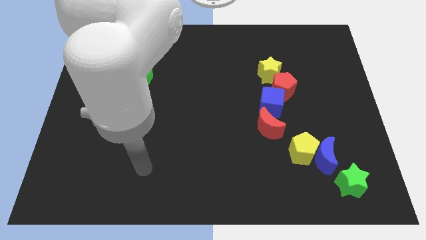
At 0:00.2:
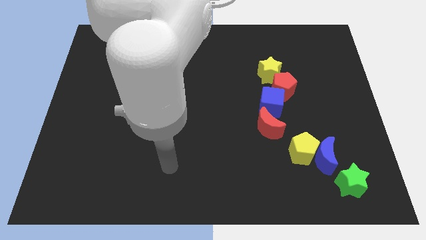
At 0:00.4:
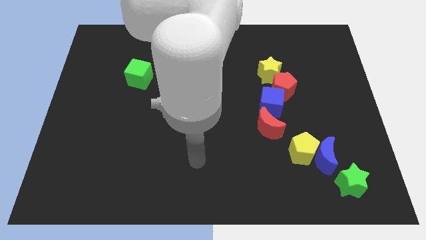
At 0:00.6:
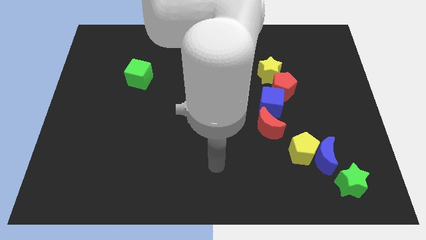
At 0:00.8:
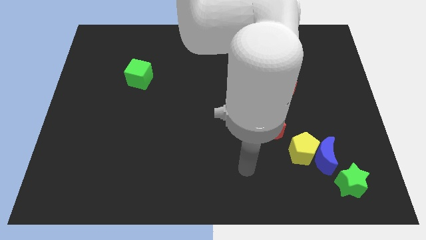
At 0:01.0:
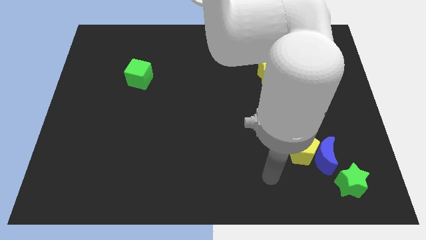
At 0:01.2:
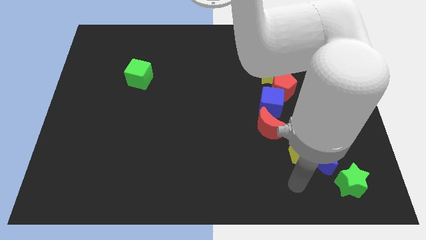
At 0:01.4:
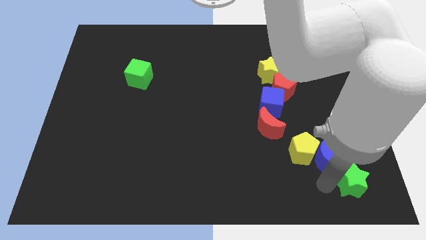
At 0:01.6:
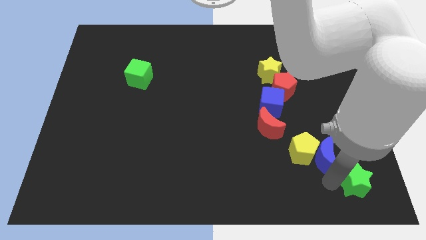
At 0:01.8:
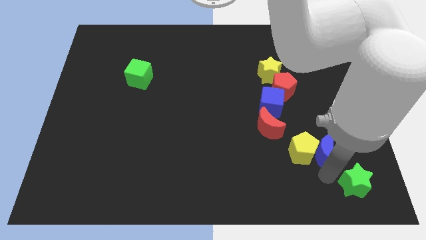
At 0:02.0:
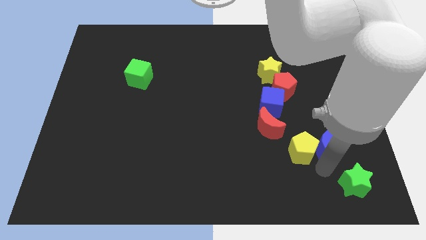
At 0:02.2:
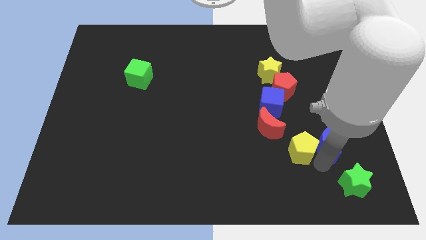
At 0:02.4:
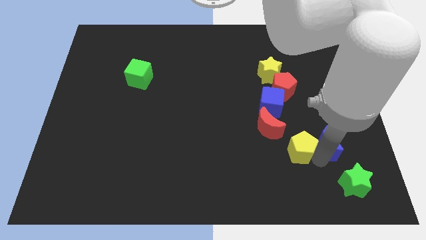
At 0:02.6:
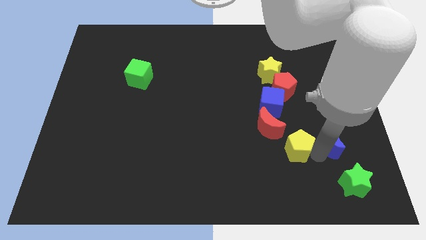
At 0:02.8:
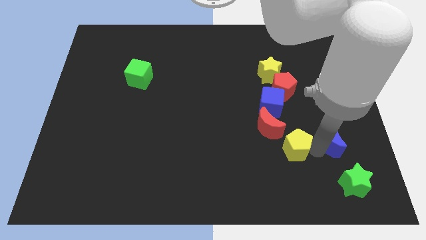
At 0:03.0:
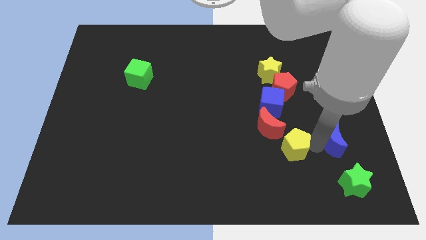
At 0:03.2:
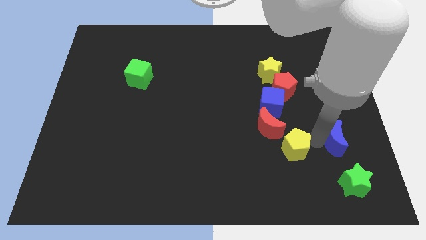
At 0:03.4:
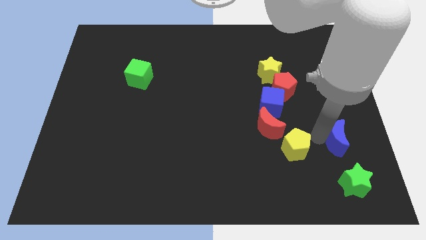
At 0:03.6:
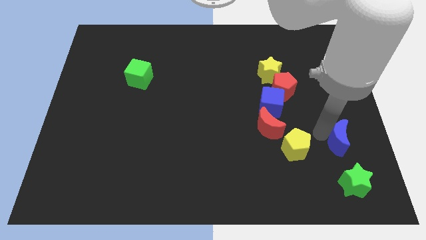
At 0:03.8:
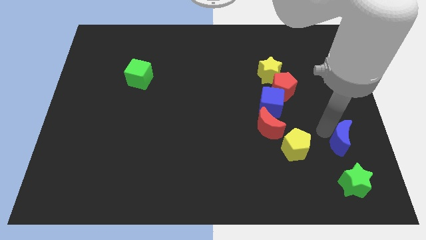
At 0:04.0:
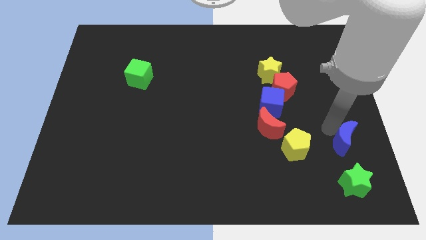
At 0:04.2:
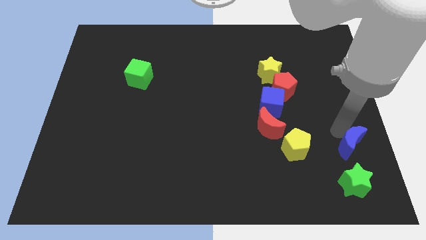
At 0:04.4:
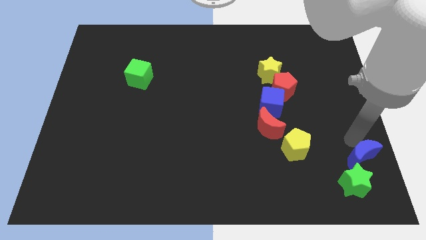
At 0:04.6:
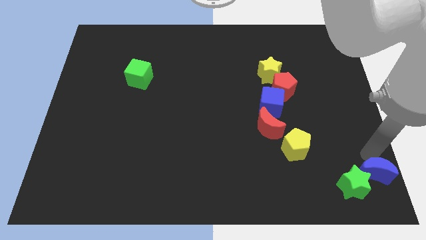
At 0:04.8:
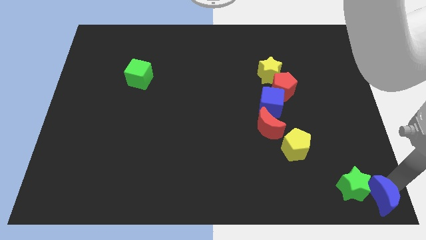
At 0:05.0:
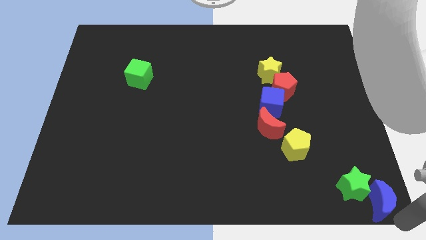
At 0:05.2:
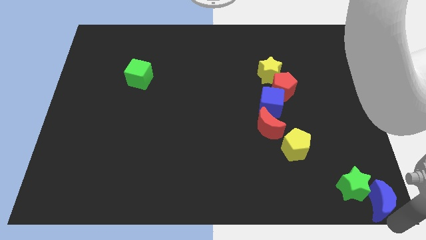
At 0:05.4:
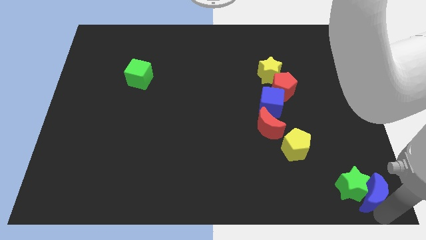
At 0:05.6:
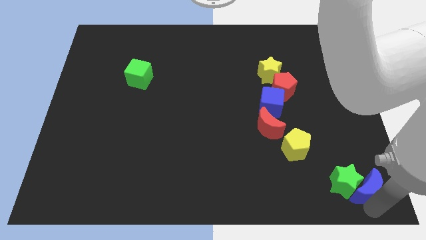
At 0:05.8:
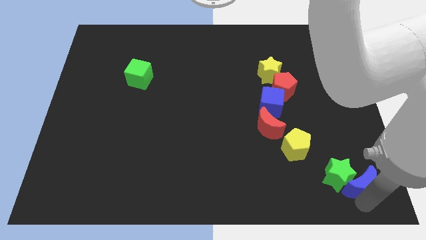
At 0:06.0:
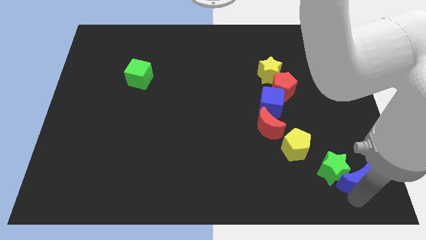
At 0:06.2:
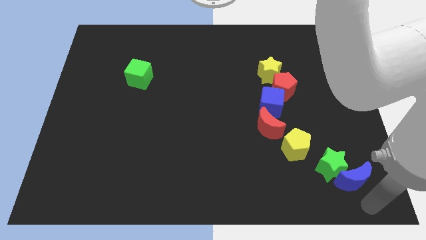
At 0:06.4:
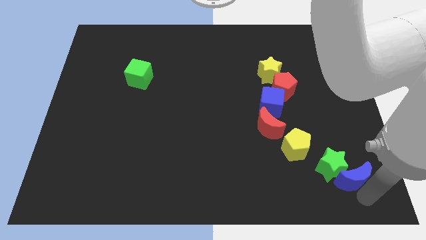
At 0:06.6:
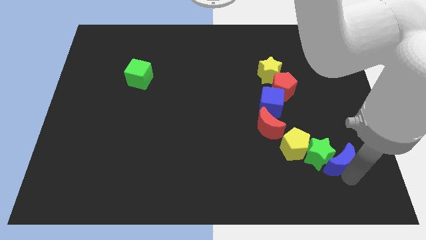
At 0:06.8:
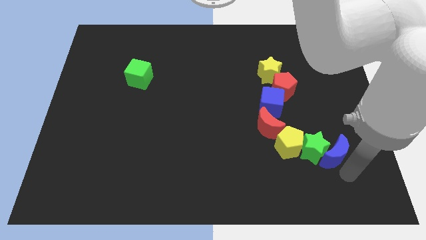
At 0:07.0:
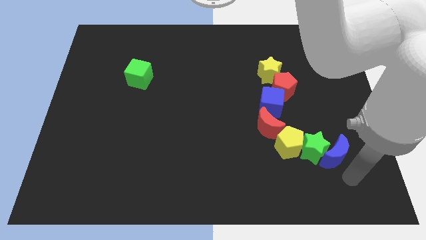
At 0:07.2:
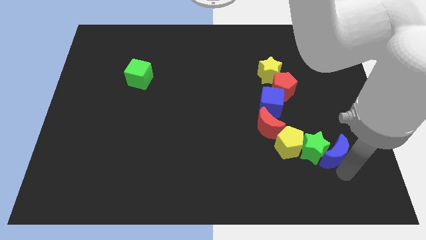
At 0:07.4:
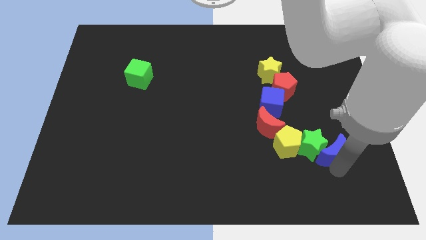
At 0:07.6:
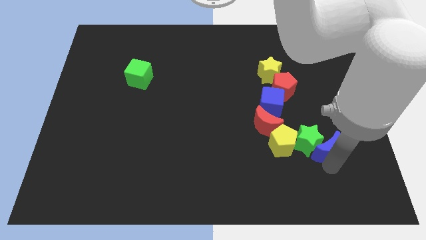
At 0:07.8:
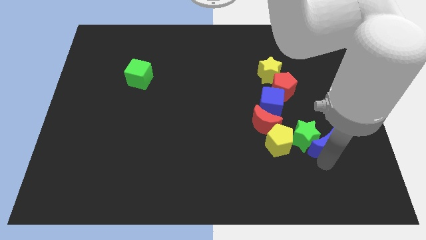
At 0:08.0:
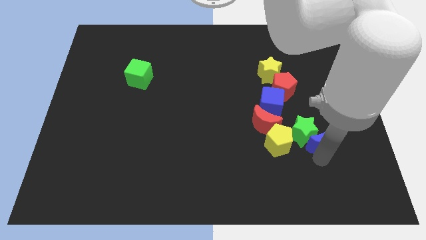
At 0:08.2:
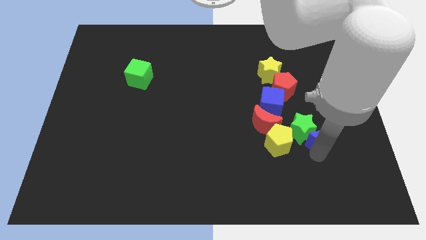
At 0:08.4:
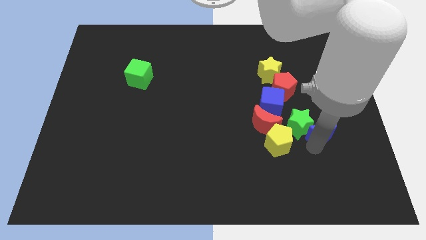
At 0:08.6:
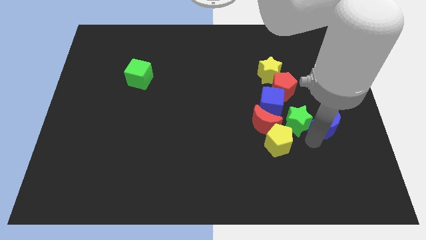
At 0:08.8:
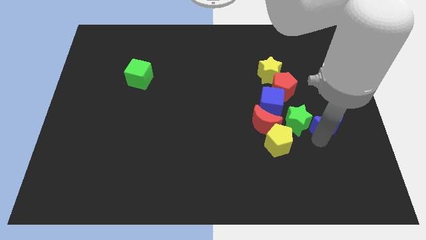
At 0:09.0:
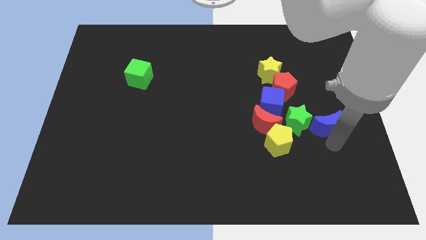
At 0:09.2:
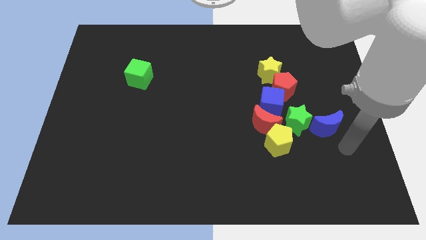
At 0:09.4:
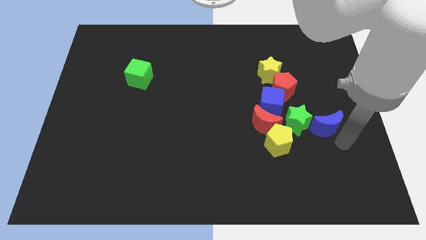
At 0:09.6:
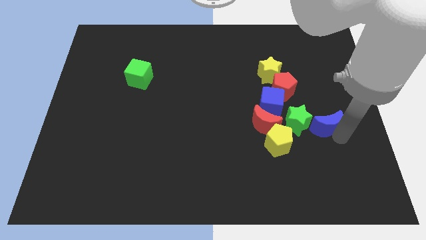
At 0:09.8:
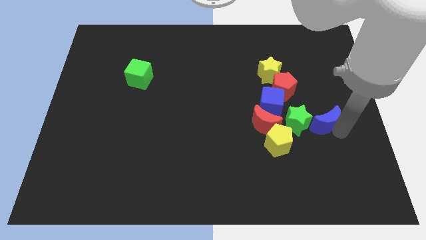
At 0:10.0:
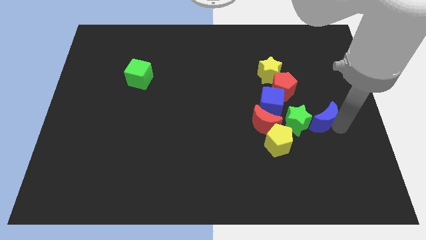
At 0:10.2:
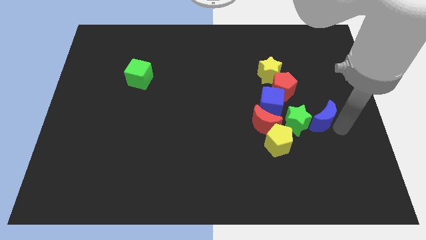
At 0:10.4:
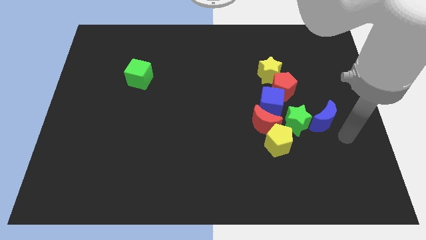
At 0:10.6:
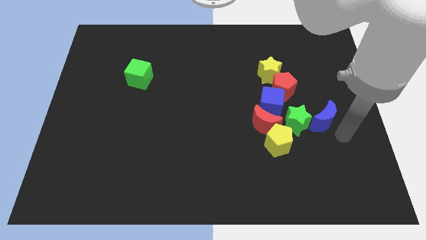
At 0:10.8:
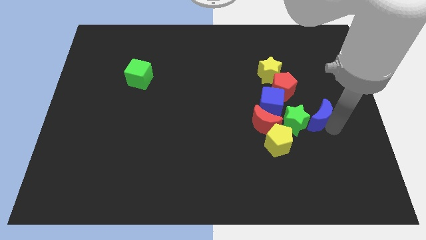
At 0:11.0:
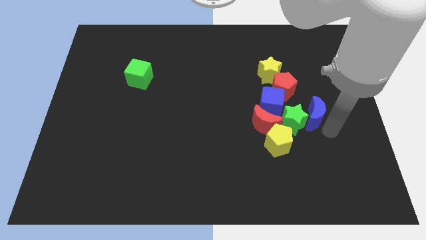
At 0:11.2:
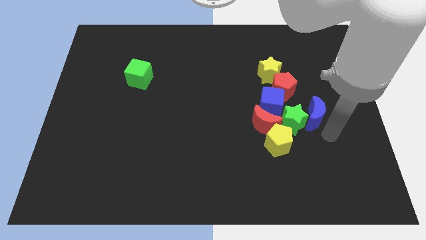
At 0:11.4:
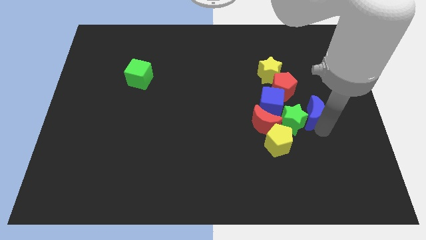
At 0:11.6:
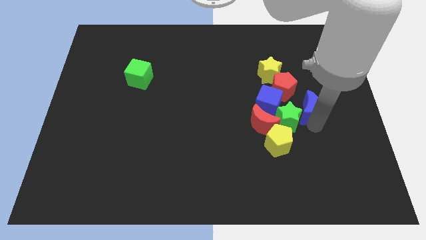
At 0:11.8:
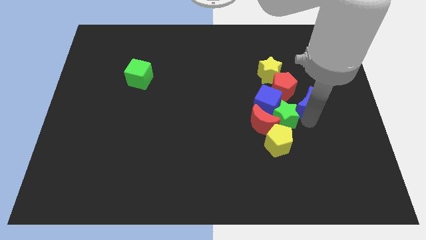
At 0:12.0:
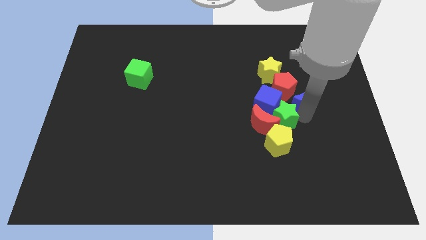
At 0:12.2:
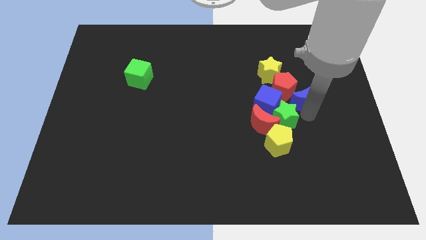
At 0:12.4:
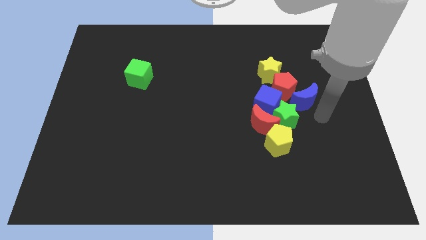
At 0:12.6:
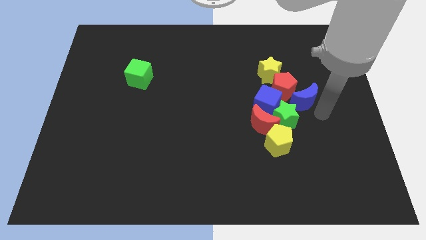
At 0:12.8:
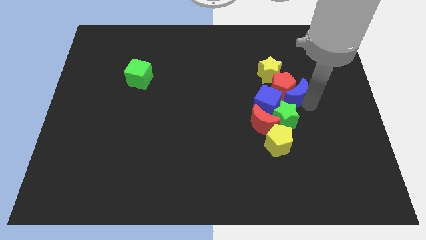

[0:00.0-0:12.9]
put the blue moon to the top right of the blue cube

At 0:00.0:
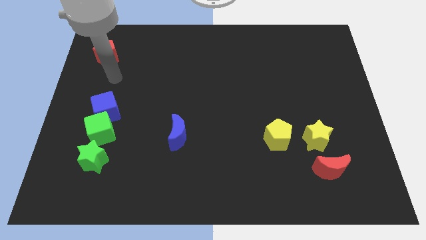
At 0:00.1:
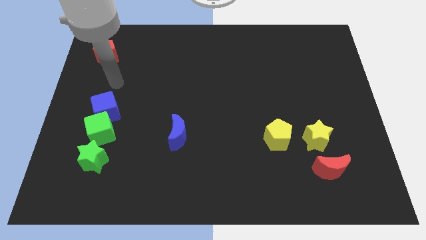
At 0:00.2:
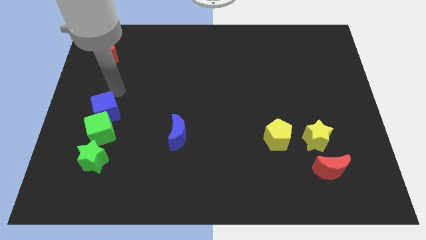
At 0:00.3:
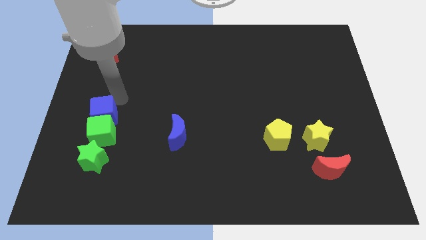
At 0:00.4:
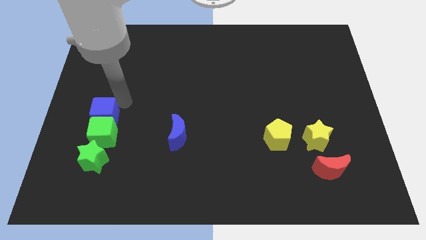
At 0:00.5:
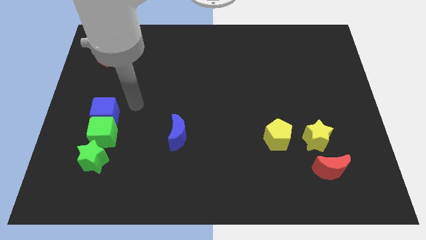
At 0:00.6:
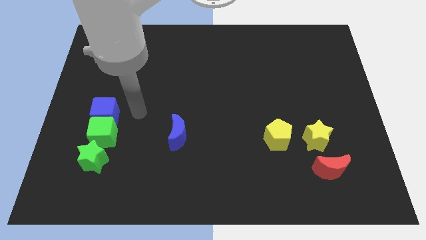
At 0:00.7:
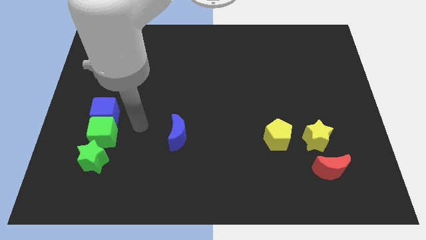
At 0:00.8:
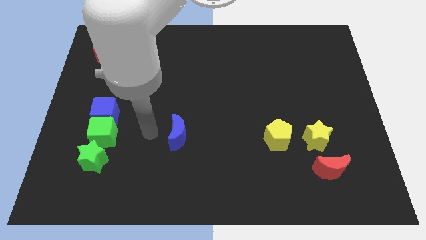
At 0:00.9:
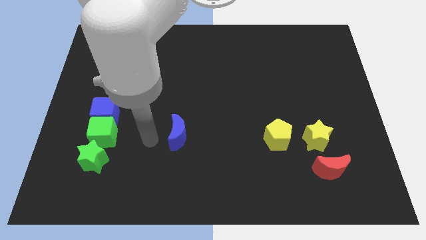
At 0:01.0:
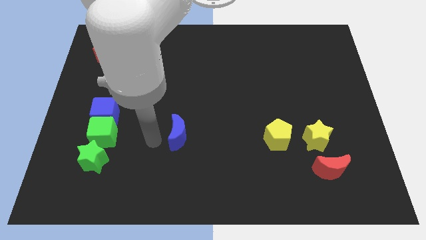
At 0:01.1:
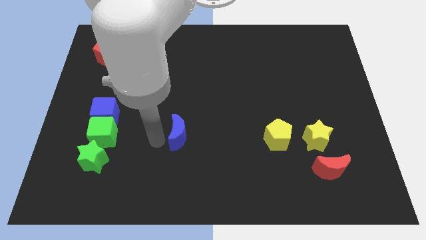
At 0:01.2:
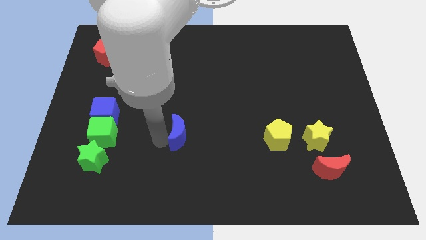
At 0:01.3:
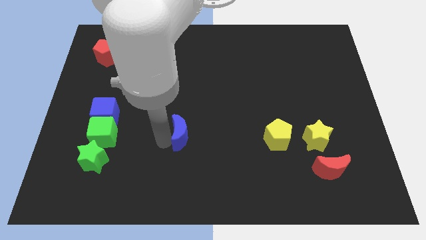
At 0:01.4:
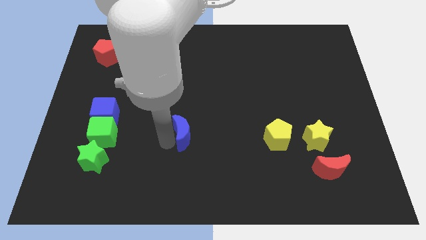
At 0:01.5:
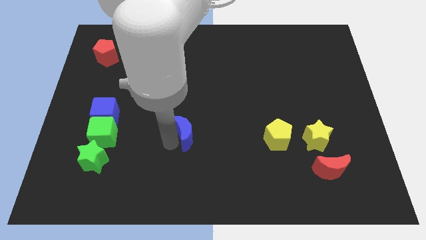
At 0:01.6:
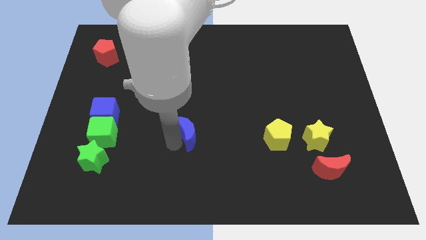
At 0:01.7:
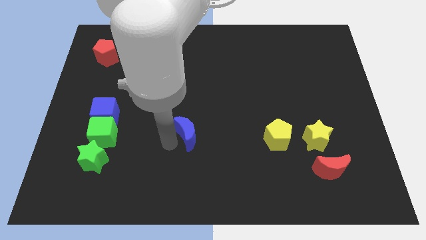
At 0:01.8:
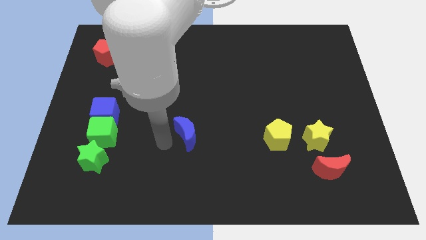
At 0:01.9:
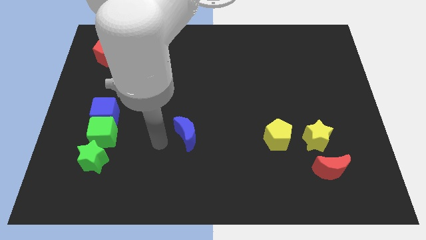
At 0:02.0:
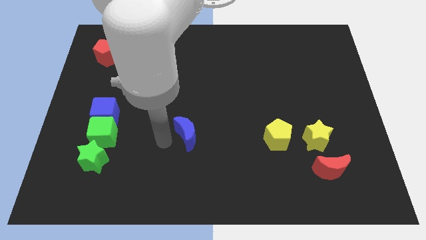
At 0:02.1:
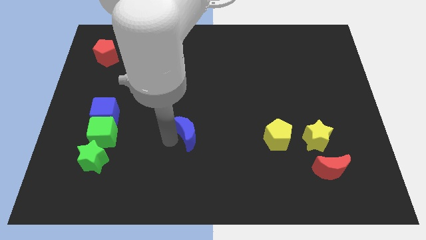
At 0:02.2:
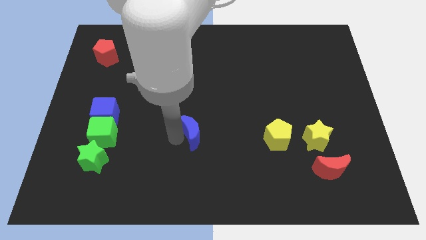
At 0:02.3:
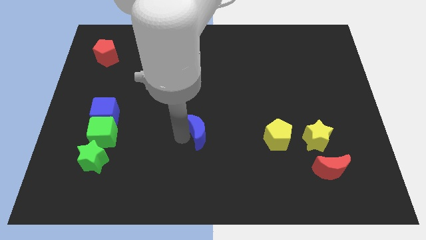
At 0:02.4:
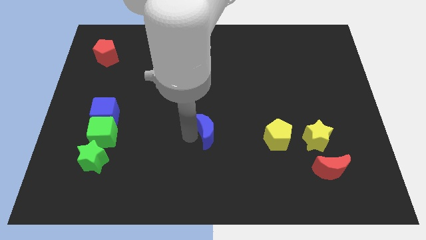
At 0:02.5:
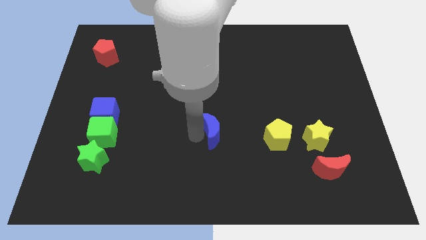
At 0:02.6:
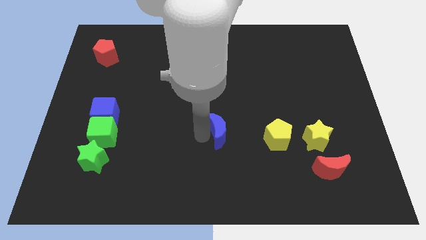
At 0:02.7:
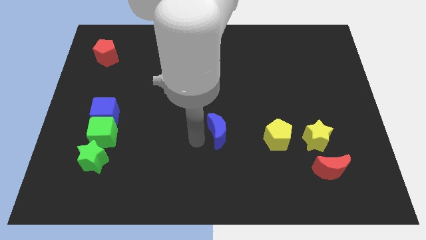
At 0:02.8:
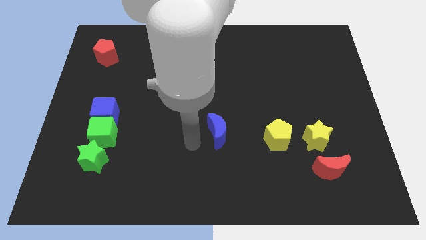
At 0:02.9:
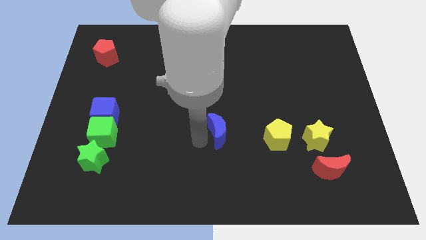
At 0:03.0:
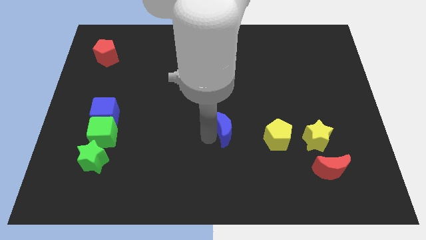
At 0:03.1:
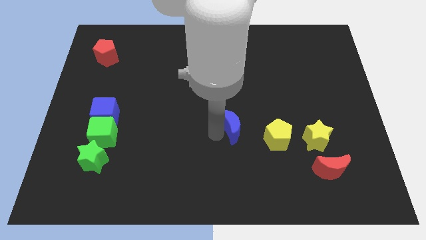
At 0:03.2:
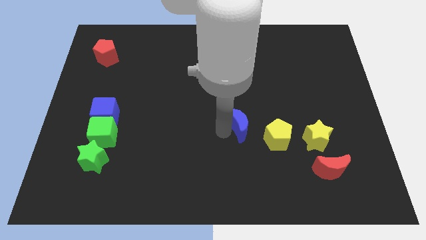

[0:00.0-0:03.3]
push the blue moon diagonally up and to the left of the yellow pentagon
